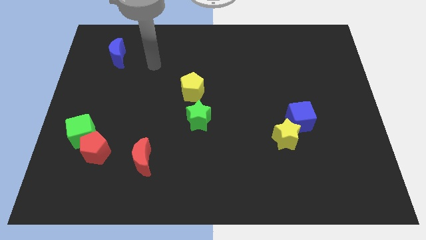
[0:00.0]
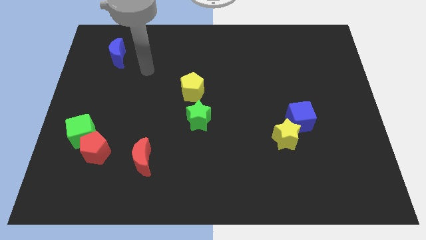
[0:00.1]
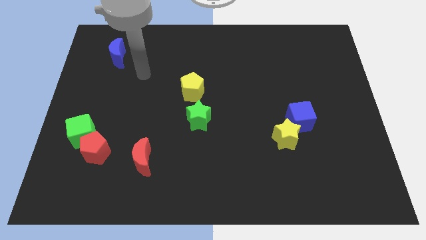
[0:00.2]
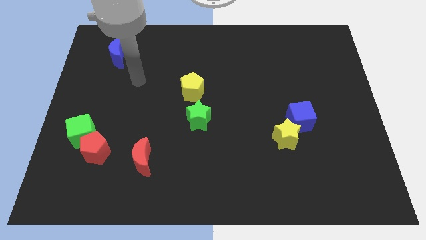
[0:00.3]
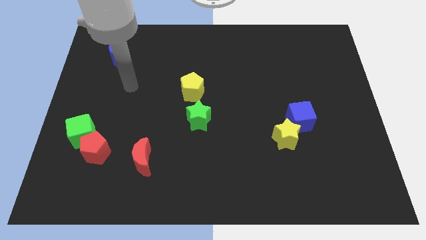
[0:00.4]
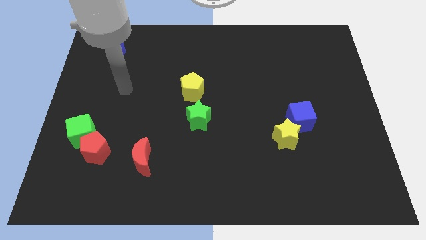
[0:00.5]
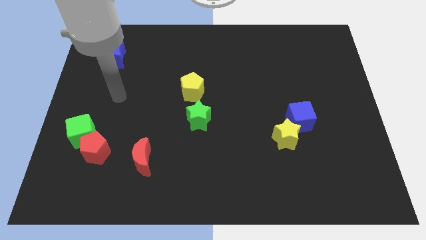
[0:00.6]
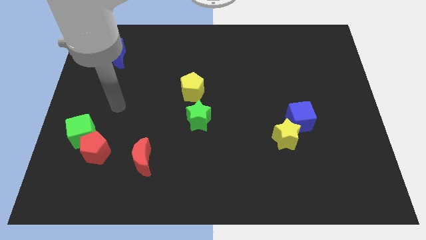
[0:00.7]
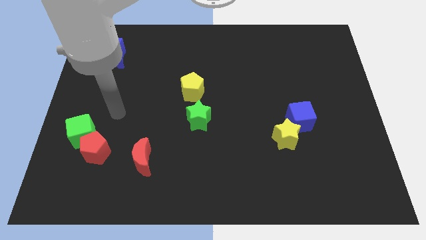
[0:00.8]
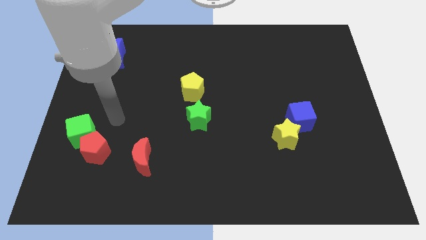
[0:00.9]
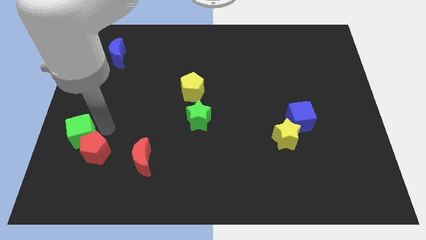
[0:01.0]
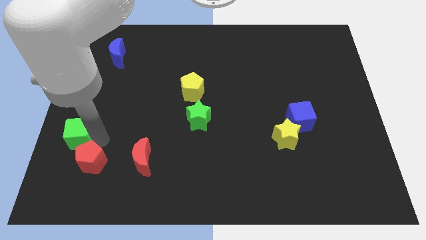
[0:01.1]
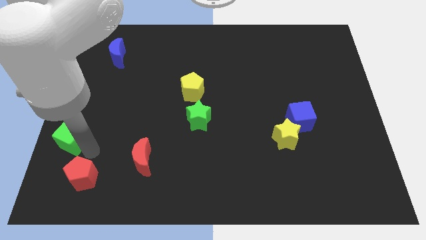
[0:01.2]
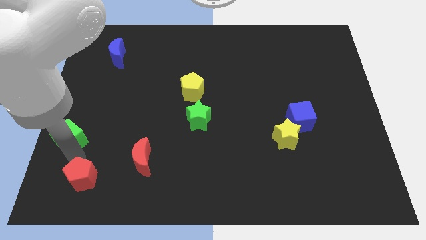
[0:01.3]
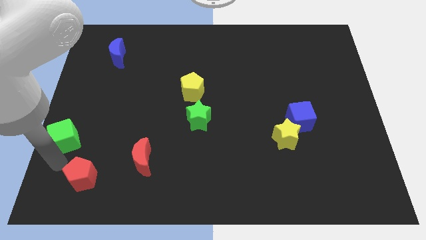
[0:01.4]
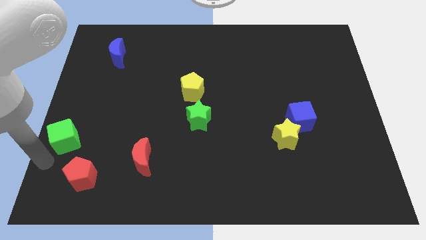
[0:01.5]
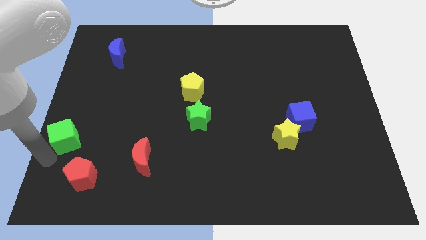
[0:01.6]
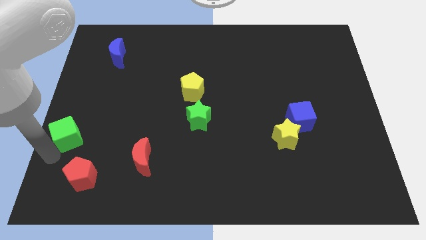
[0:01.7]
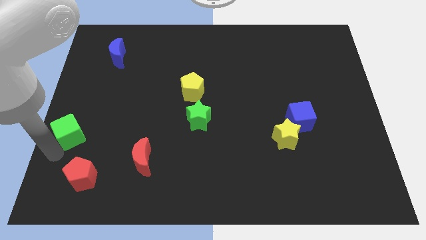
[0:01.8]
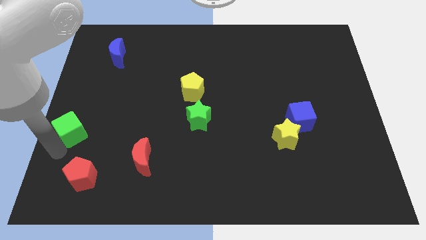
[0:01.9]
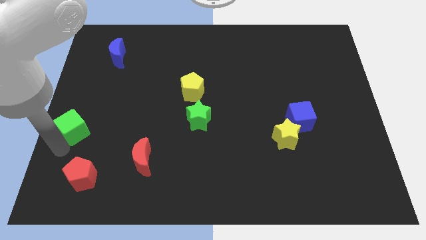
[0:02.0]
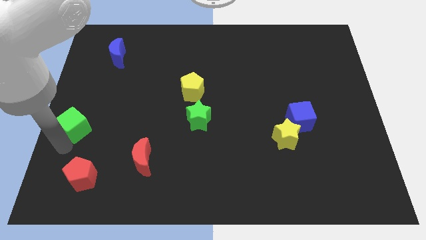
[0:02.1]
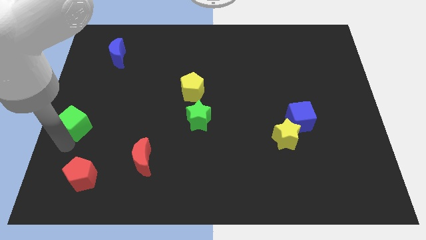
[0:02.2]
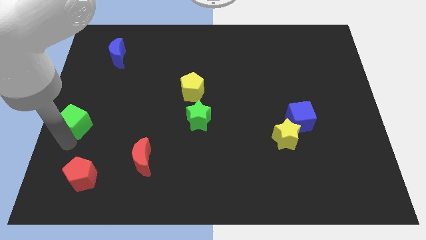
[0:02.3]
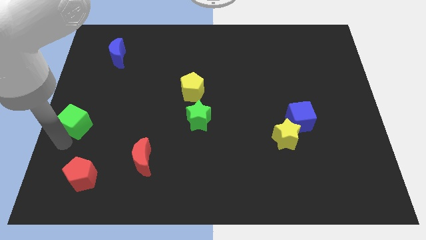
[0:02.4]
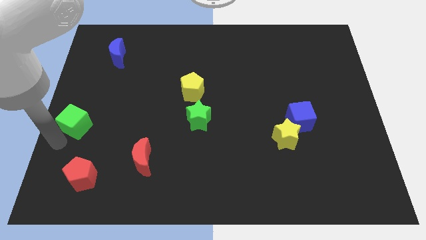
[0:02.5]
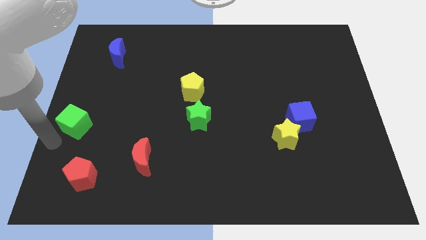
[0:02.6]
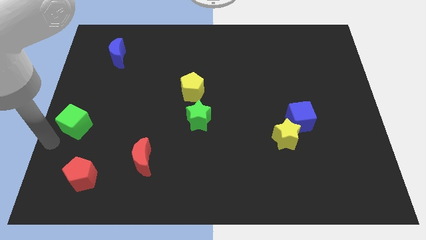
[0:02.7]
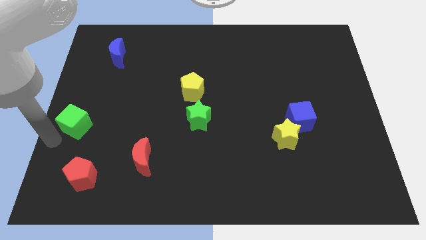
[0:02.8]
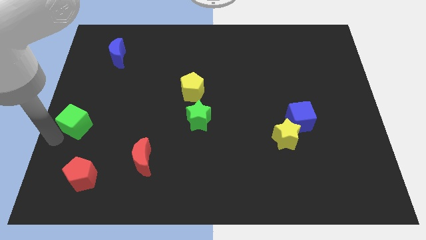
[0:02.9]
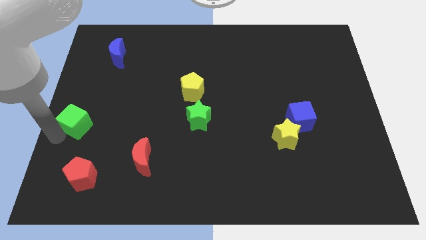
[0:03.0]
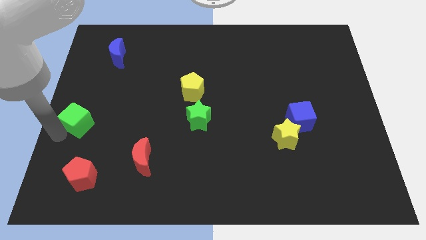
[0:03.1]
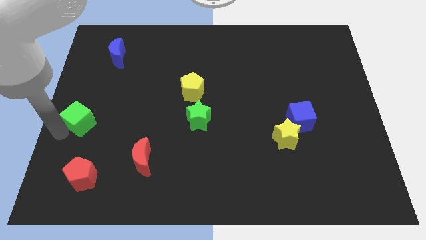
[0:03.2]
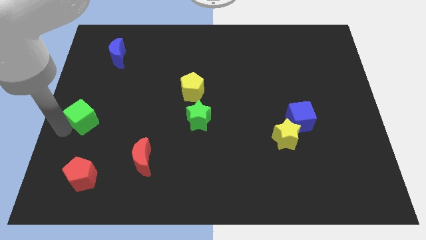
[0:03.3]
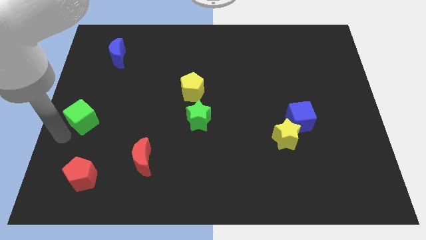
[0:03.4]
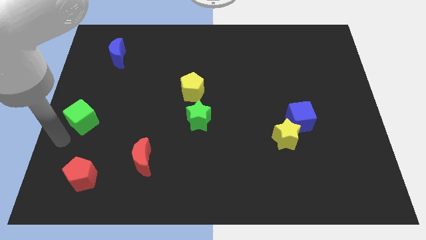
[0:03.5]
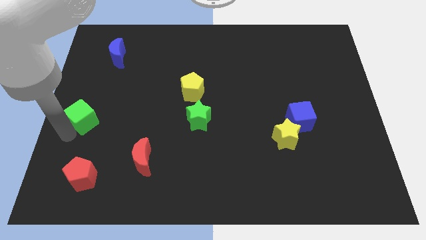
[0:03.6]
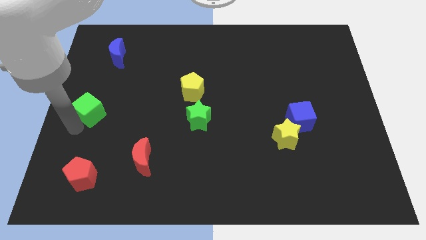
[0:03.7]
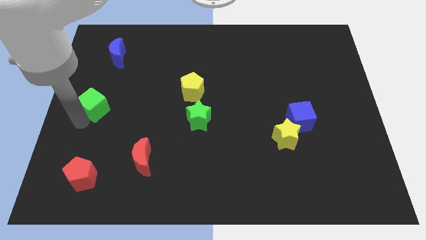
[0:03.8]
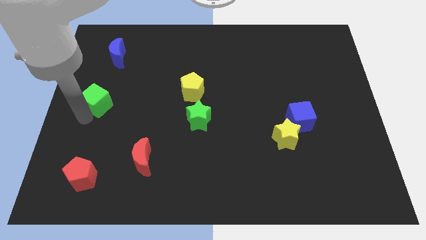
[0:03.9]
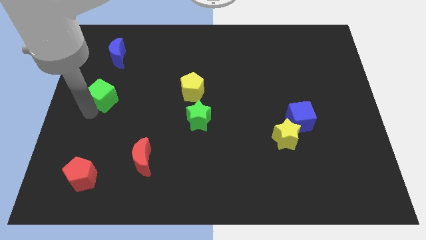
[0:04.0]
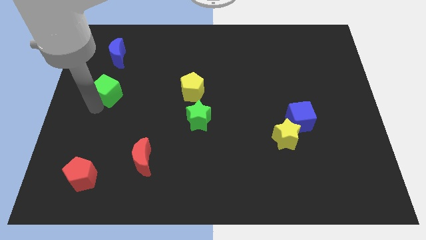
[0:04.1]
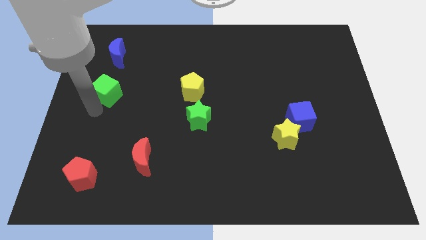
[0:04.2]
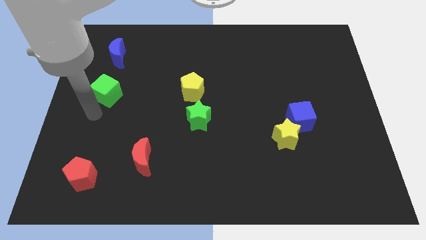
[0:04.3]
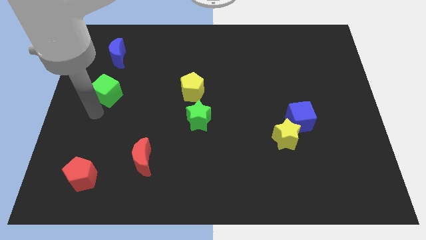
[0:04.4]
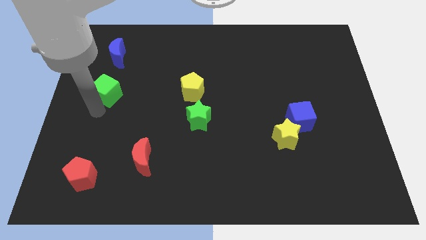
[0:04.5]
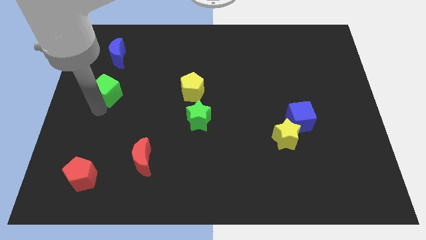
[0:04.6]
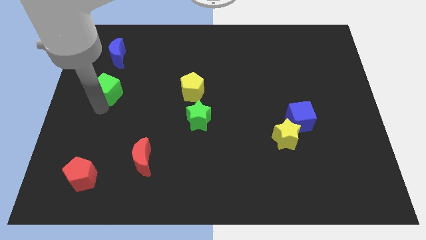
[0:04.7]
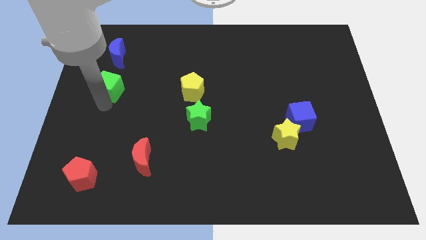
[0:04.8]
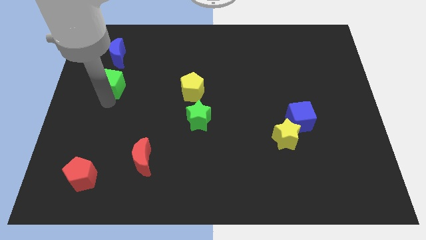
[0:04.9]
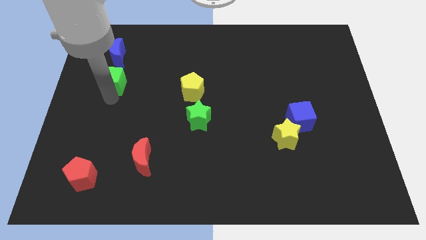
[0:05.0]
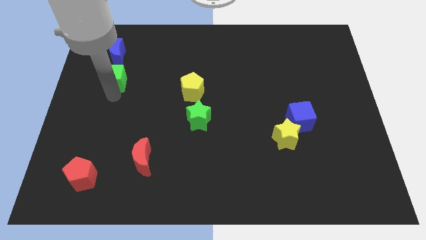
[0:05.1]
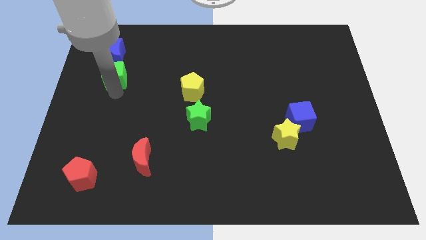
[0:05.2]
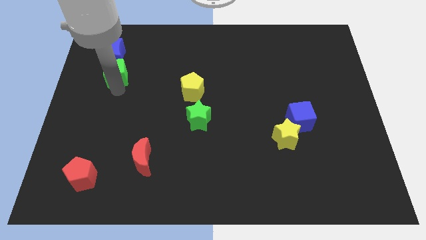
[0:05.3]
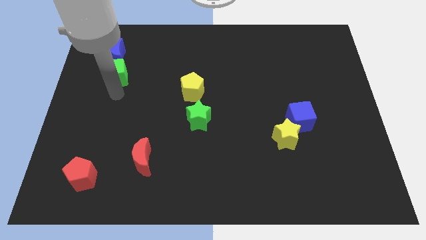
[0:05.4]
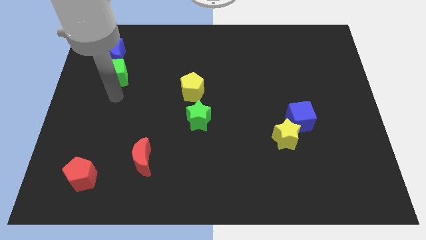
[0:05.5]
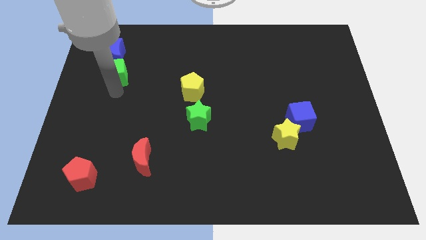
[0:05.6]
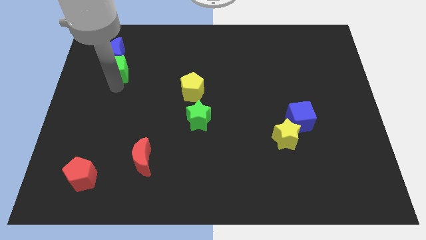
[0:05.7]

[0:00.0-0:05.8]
slide the green cube next to the blue moon

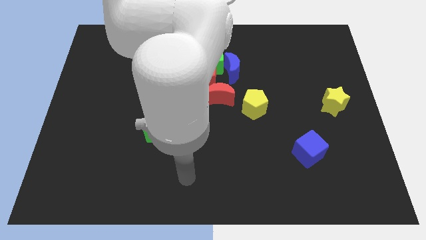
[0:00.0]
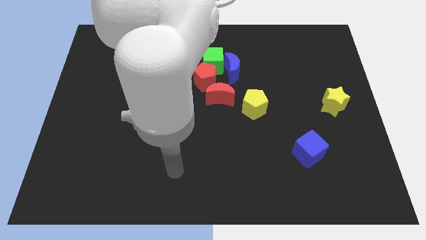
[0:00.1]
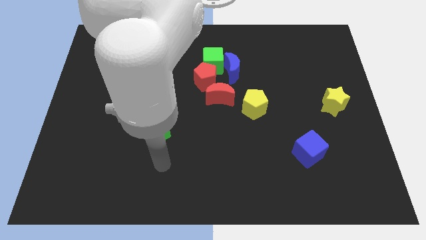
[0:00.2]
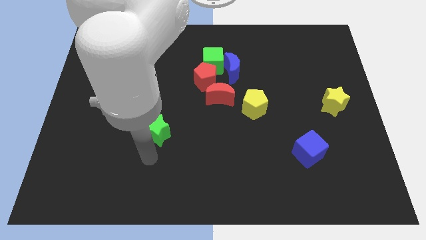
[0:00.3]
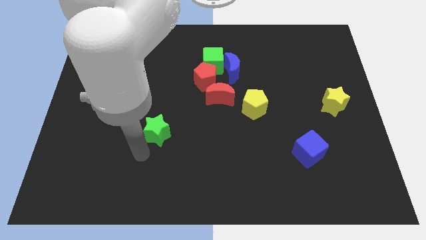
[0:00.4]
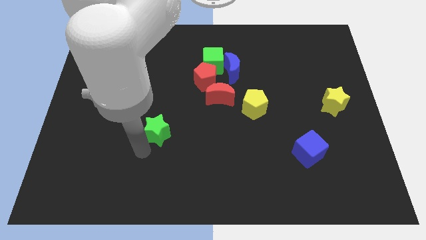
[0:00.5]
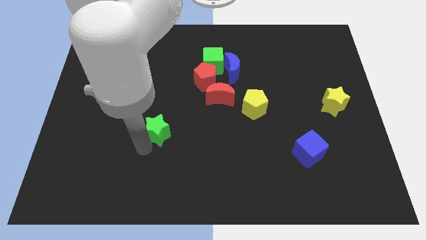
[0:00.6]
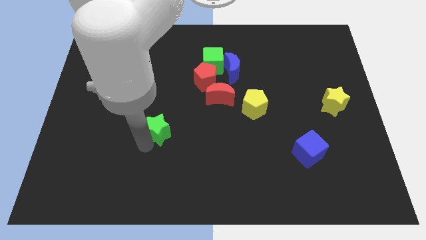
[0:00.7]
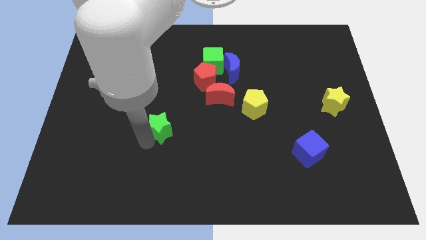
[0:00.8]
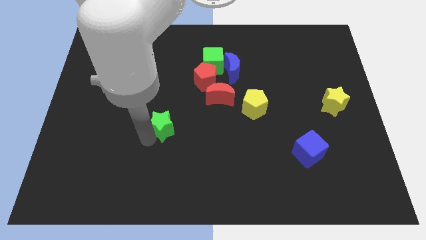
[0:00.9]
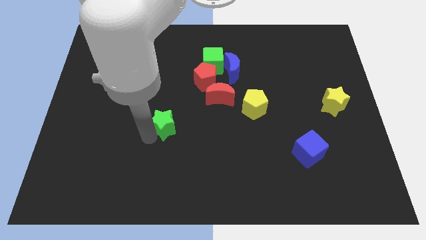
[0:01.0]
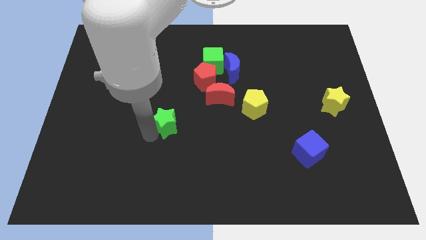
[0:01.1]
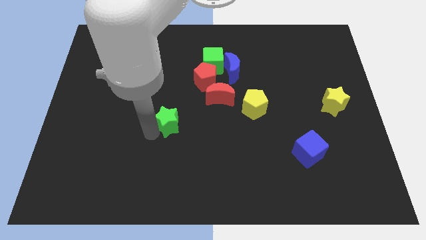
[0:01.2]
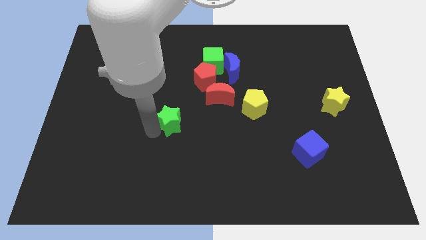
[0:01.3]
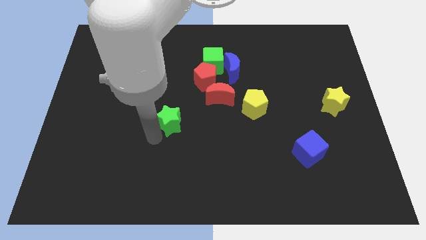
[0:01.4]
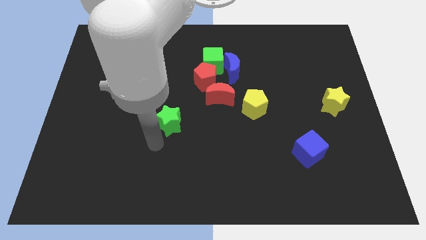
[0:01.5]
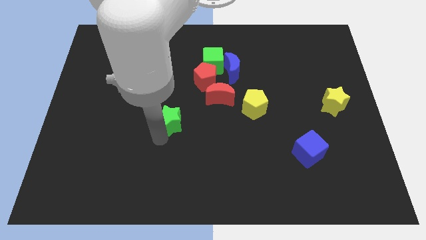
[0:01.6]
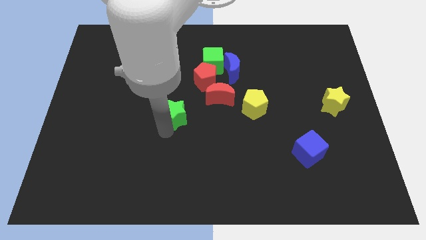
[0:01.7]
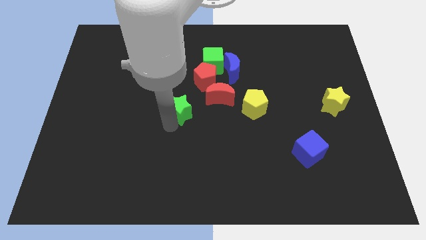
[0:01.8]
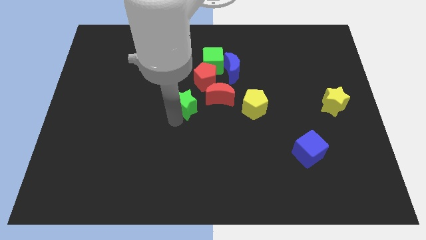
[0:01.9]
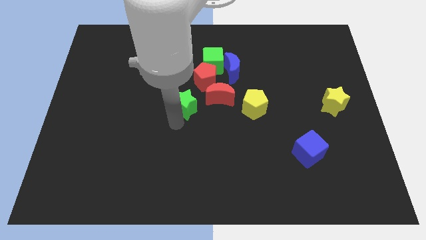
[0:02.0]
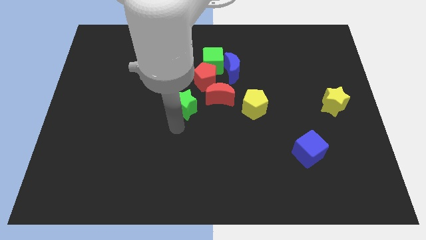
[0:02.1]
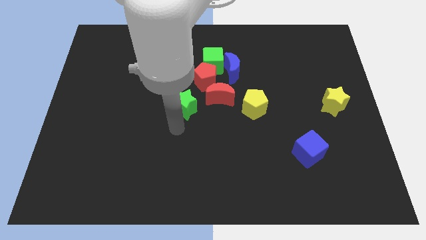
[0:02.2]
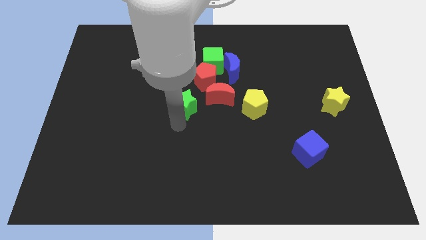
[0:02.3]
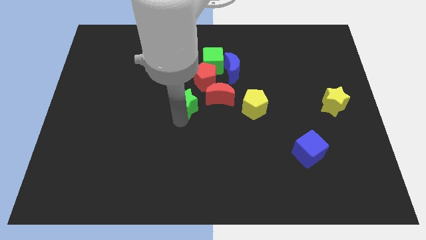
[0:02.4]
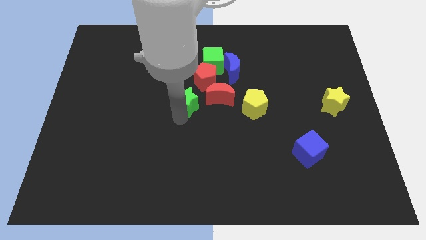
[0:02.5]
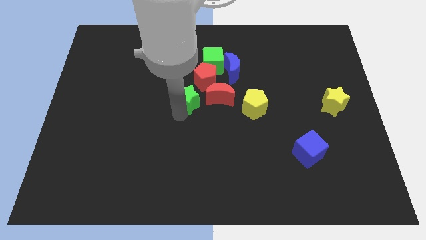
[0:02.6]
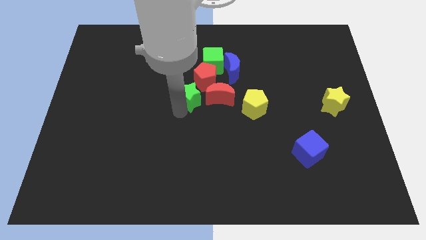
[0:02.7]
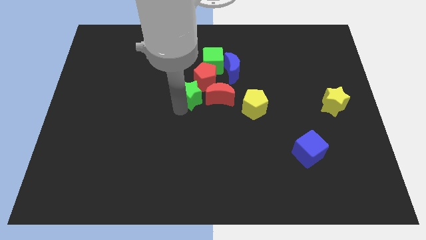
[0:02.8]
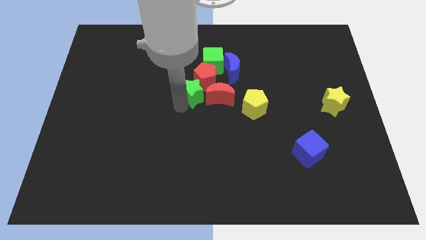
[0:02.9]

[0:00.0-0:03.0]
put the green star close to the red pentagon
